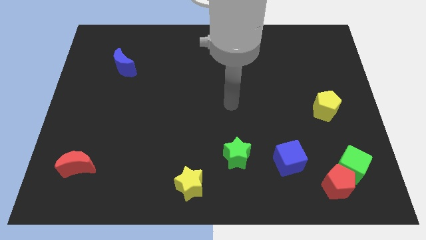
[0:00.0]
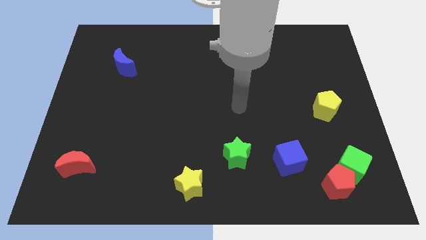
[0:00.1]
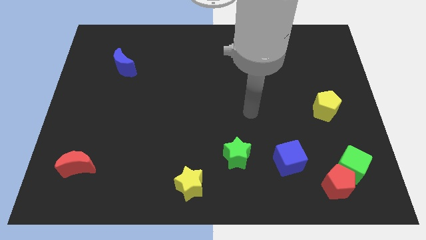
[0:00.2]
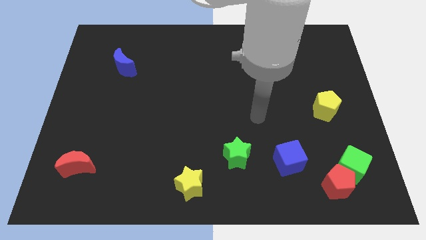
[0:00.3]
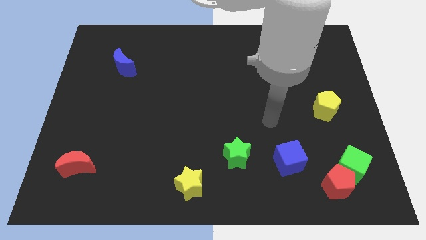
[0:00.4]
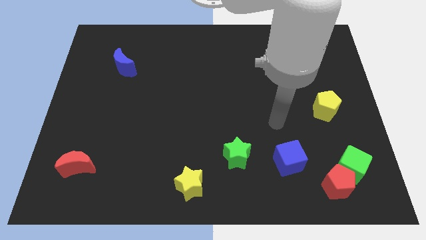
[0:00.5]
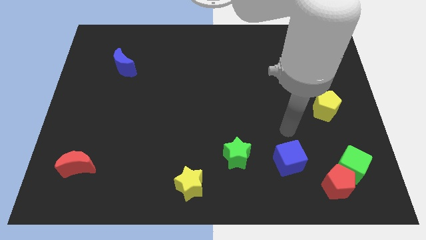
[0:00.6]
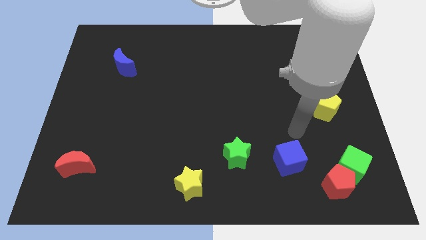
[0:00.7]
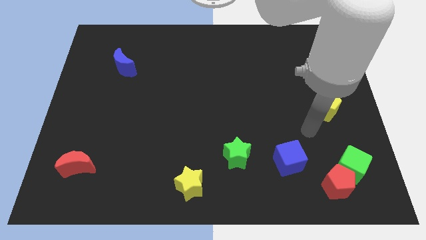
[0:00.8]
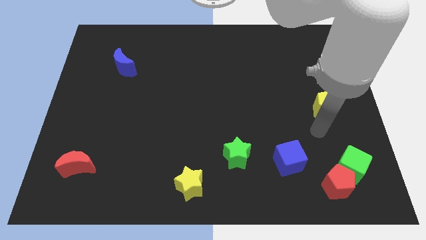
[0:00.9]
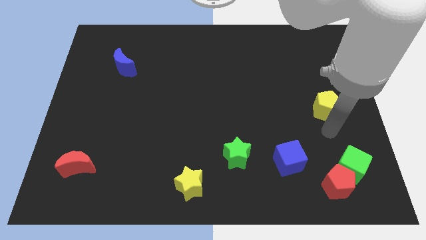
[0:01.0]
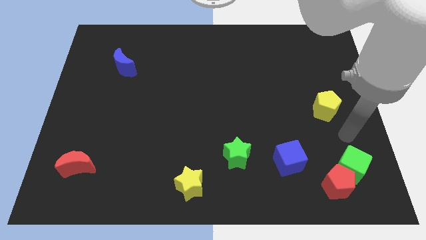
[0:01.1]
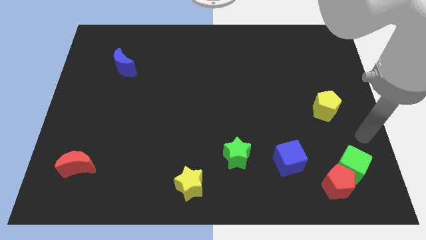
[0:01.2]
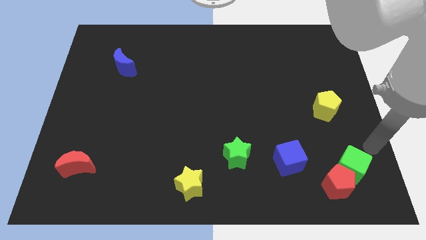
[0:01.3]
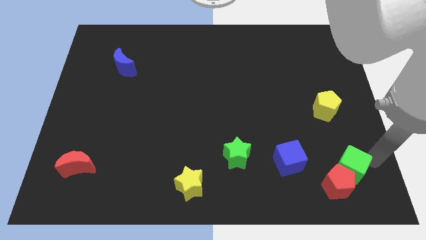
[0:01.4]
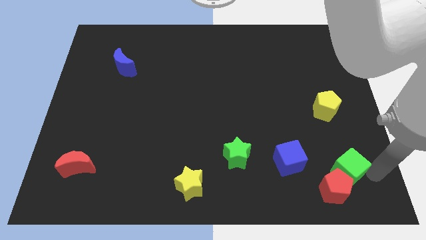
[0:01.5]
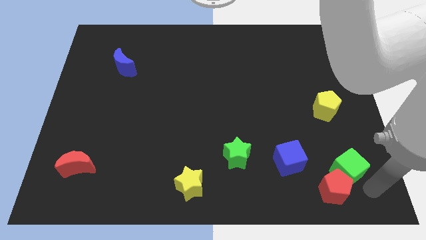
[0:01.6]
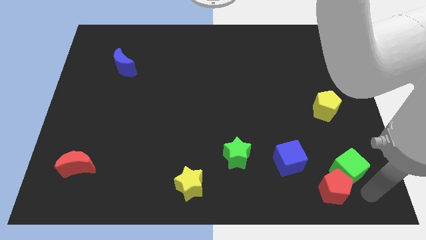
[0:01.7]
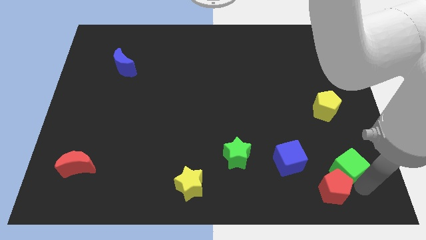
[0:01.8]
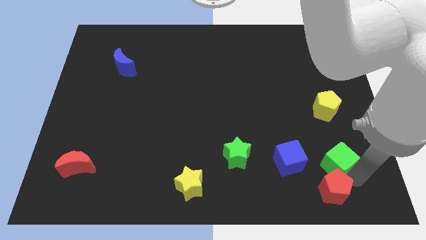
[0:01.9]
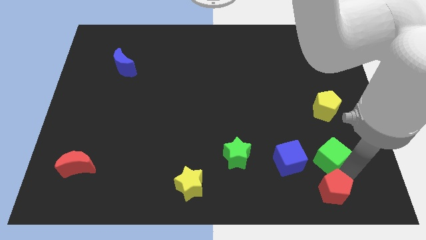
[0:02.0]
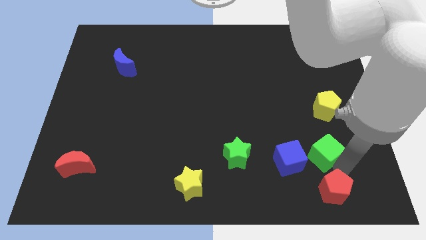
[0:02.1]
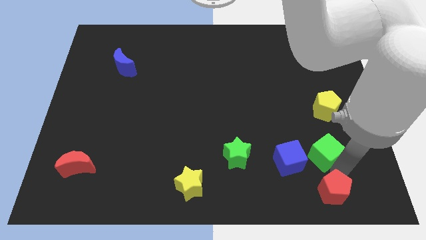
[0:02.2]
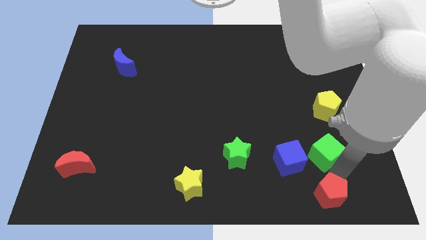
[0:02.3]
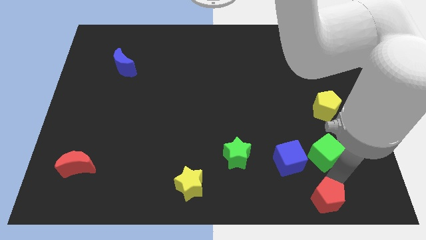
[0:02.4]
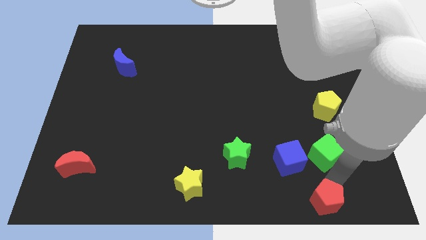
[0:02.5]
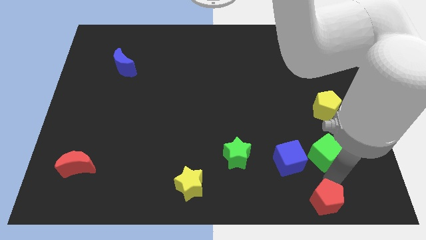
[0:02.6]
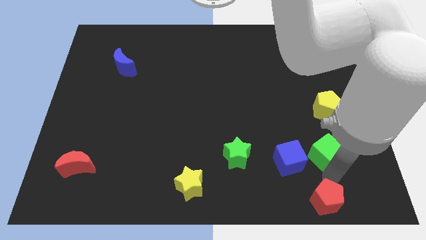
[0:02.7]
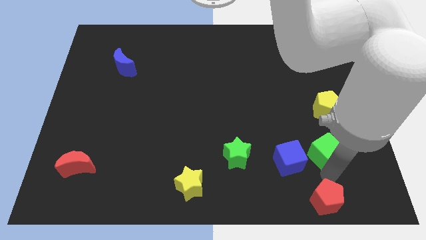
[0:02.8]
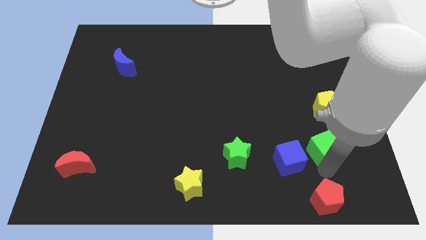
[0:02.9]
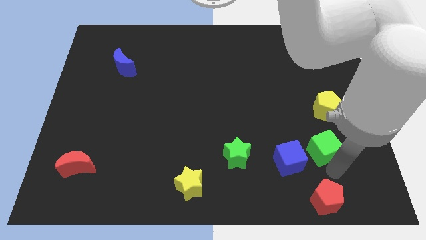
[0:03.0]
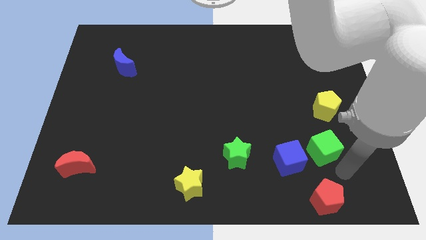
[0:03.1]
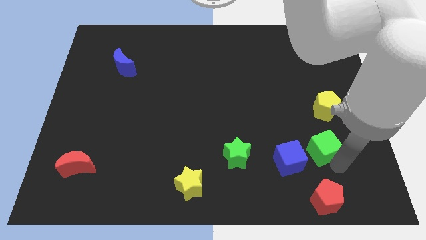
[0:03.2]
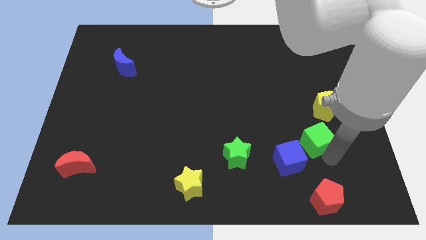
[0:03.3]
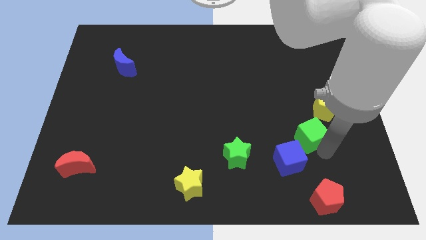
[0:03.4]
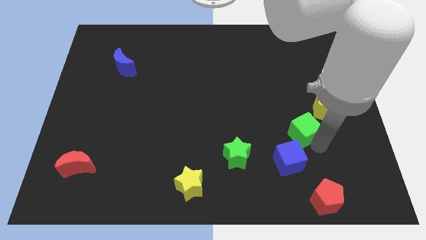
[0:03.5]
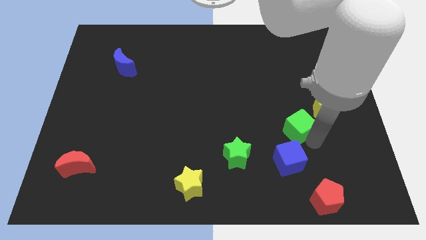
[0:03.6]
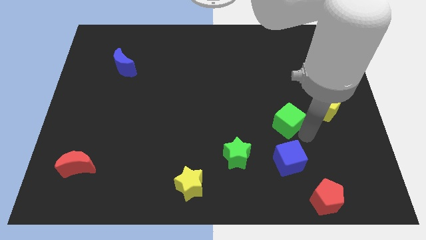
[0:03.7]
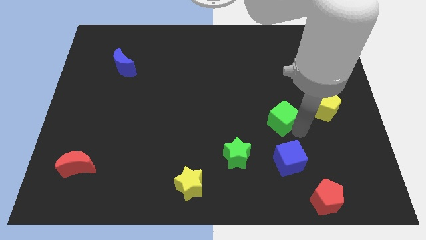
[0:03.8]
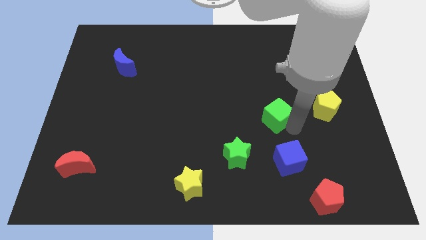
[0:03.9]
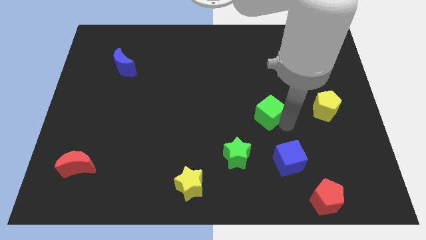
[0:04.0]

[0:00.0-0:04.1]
move the green cube up and left

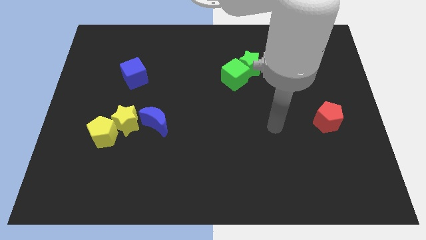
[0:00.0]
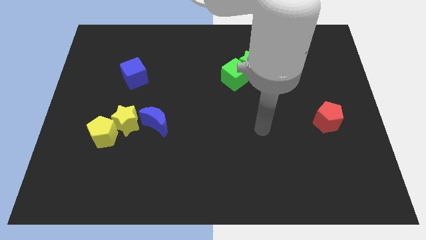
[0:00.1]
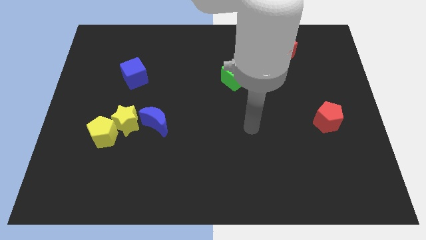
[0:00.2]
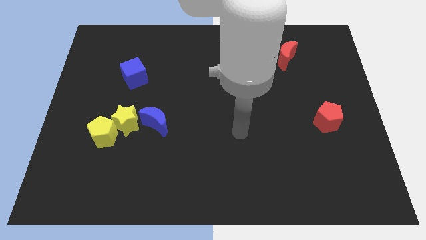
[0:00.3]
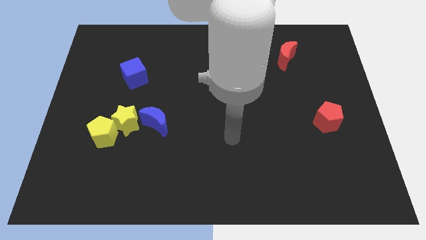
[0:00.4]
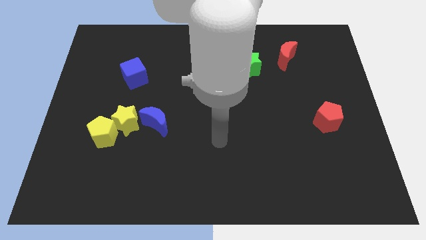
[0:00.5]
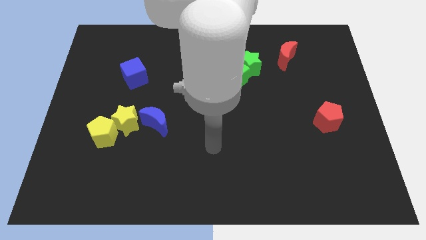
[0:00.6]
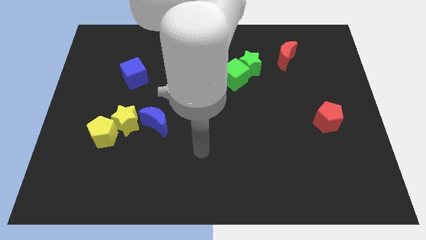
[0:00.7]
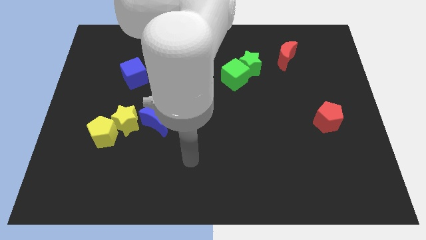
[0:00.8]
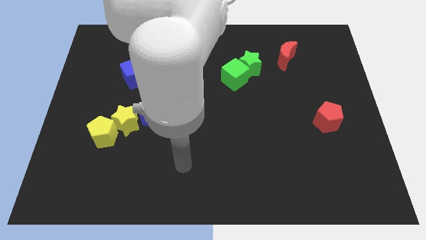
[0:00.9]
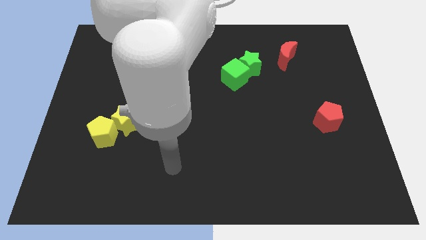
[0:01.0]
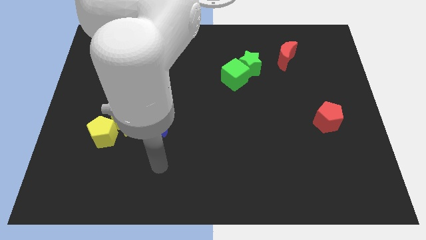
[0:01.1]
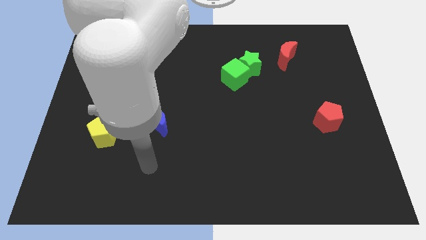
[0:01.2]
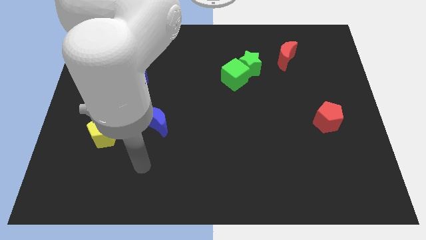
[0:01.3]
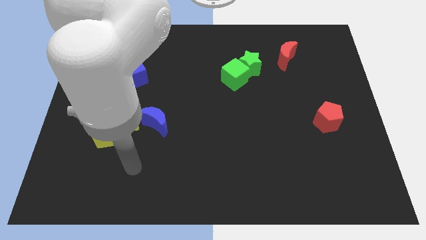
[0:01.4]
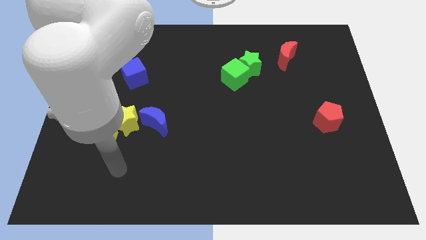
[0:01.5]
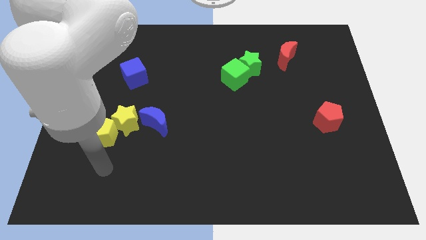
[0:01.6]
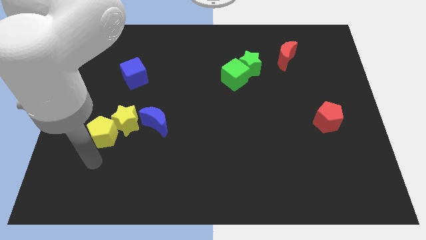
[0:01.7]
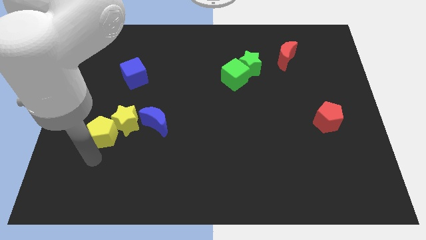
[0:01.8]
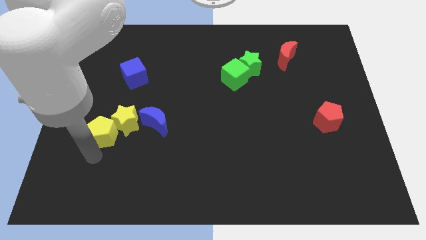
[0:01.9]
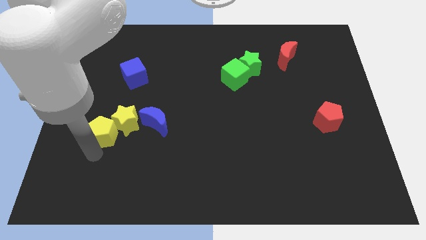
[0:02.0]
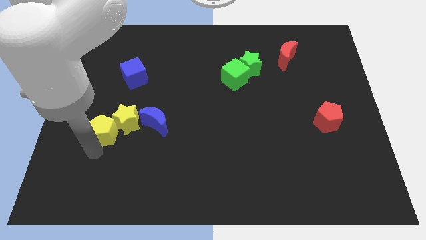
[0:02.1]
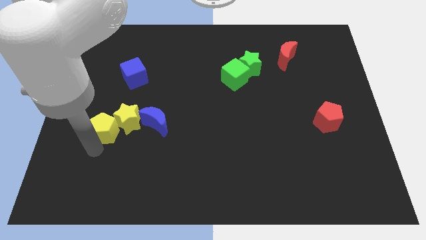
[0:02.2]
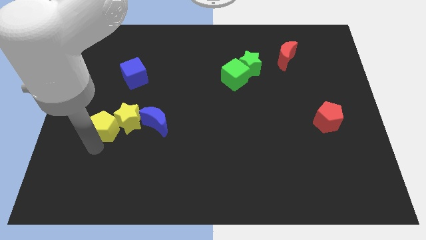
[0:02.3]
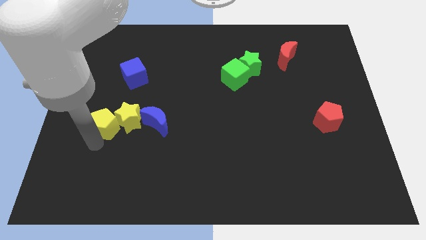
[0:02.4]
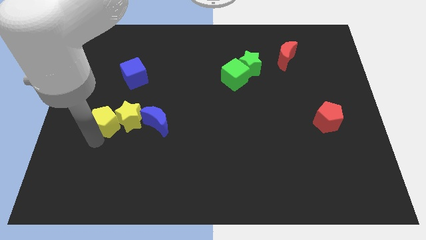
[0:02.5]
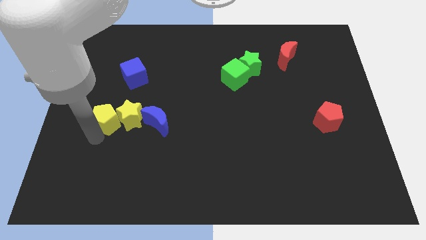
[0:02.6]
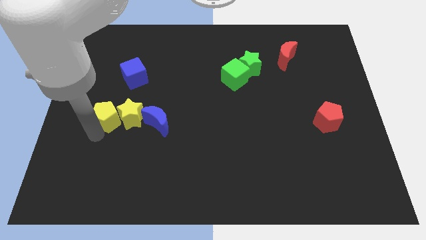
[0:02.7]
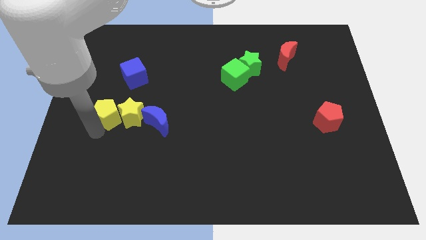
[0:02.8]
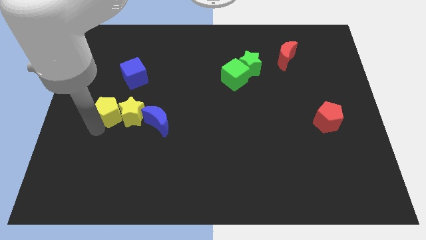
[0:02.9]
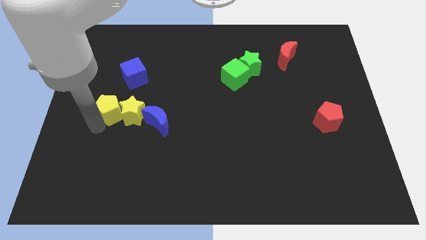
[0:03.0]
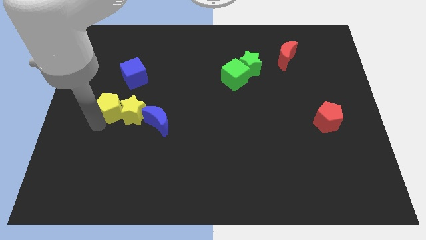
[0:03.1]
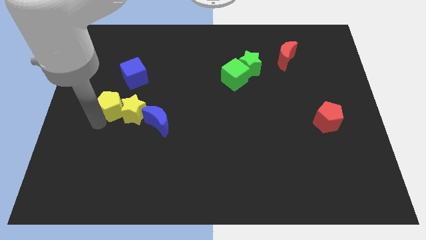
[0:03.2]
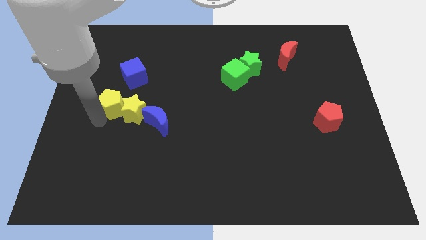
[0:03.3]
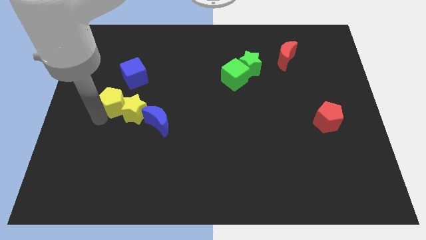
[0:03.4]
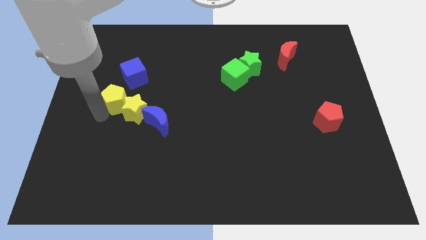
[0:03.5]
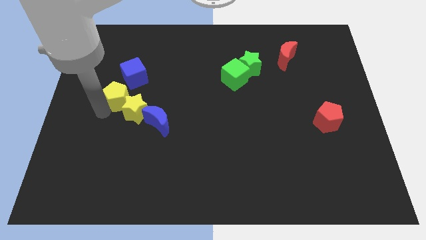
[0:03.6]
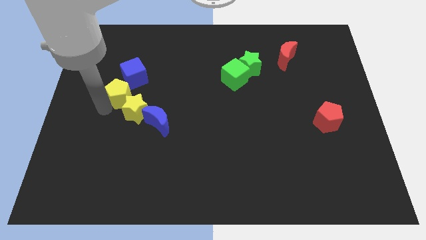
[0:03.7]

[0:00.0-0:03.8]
push the yellow pentagon upwards and to the right diagonally somewhat
